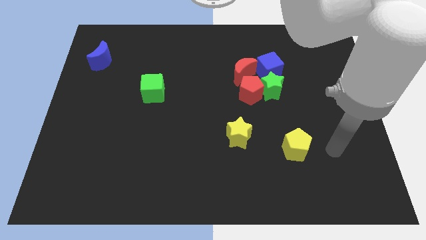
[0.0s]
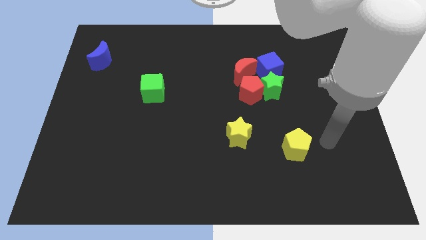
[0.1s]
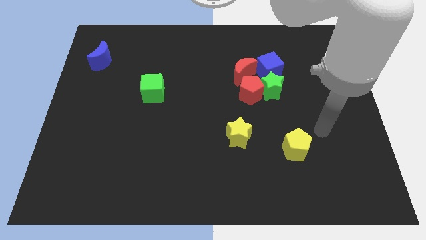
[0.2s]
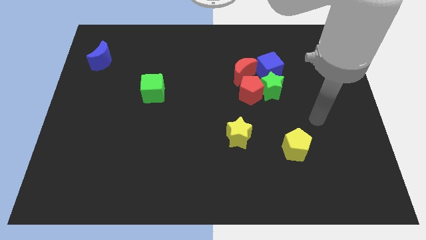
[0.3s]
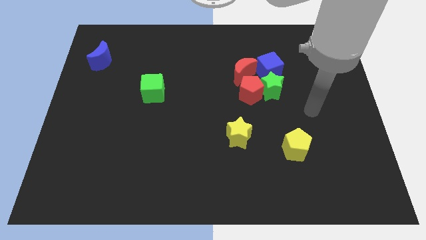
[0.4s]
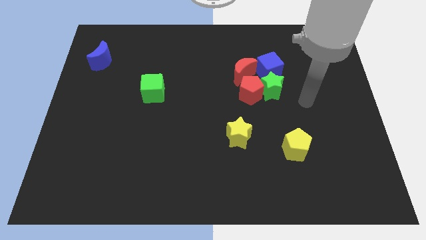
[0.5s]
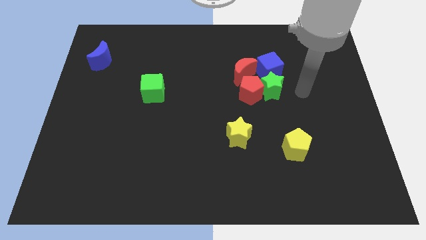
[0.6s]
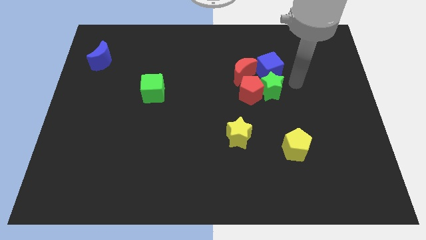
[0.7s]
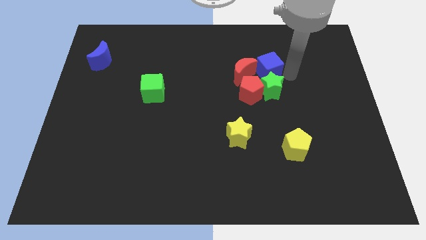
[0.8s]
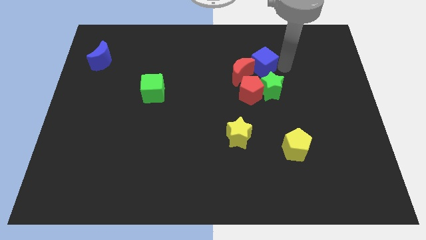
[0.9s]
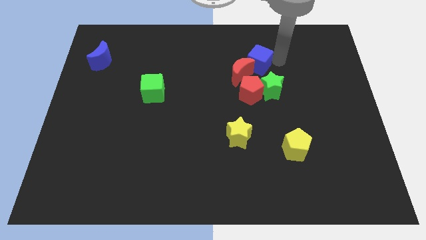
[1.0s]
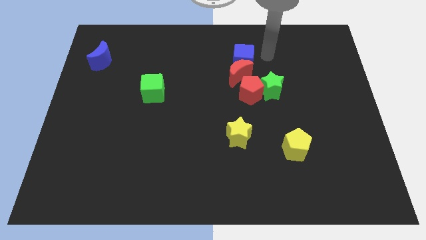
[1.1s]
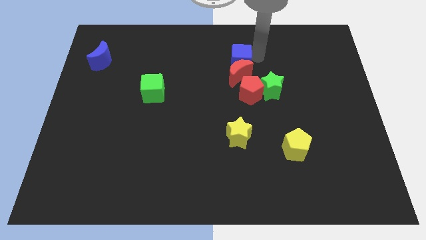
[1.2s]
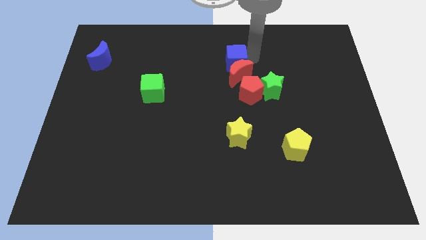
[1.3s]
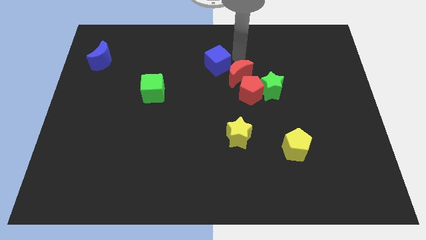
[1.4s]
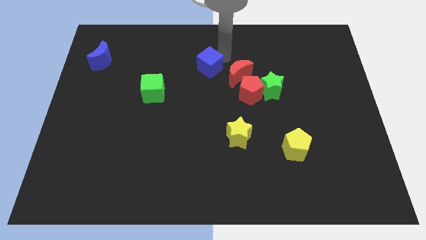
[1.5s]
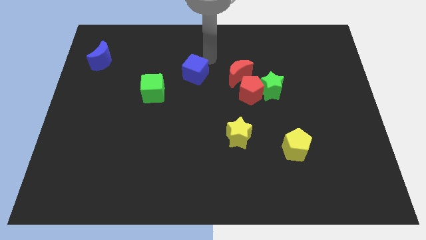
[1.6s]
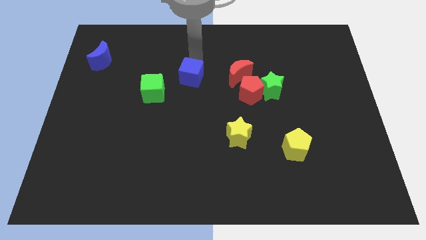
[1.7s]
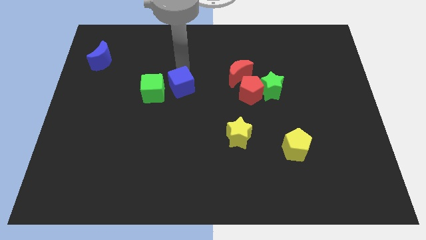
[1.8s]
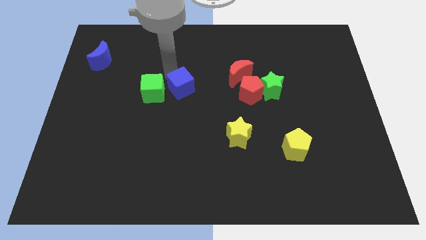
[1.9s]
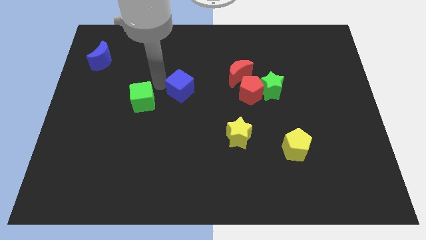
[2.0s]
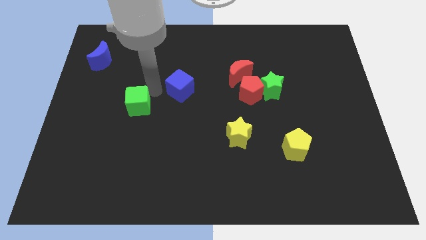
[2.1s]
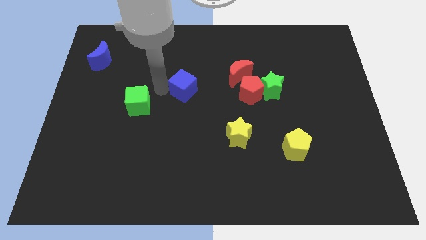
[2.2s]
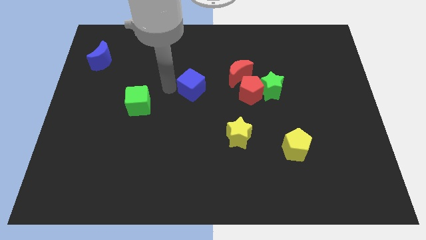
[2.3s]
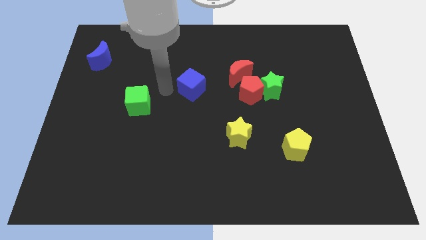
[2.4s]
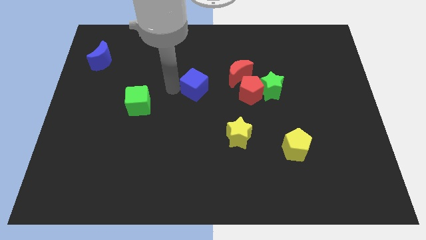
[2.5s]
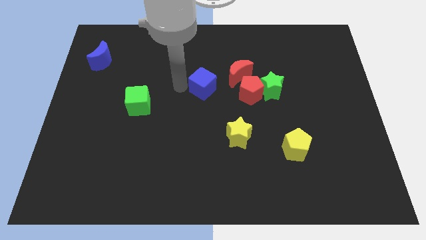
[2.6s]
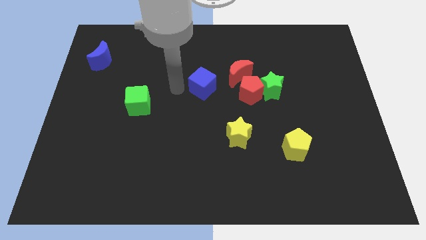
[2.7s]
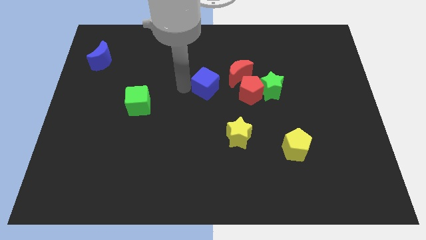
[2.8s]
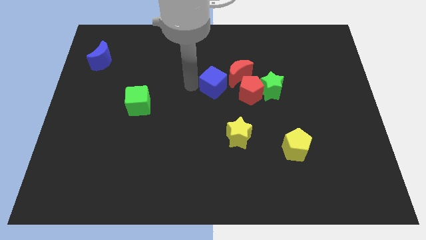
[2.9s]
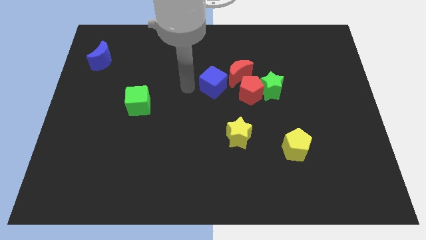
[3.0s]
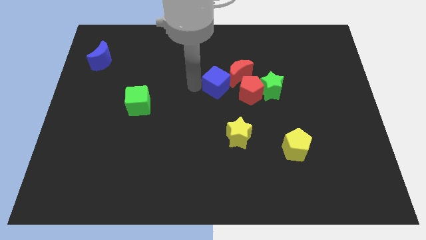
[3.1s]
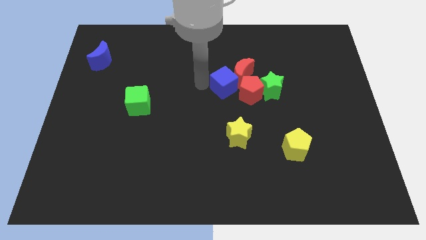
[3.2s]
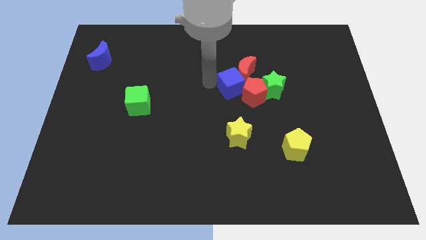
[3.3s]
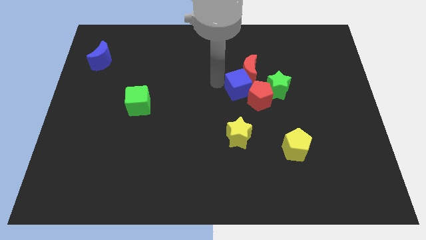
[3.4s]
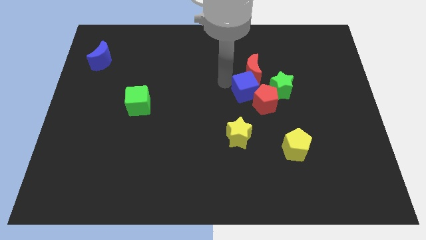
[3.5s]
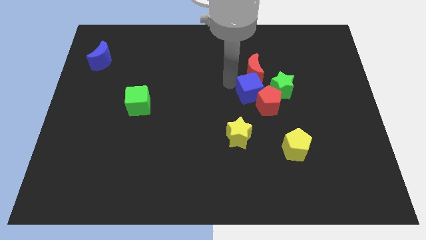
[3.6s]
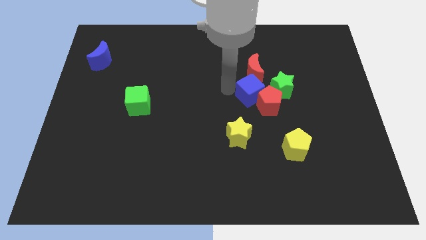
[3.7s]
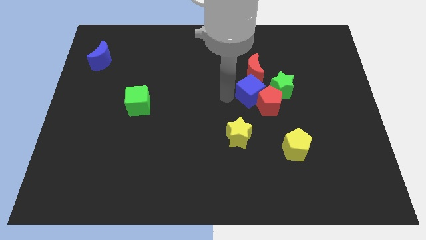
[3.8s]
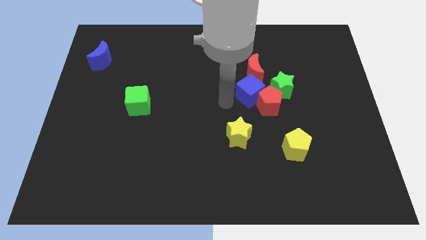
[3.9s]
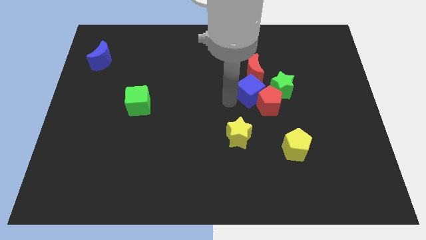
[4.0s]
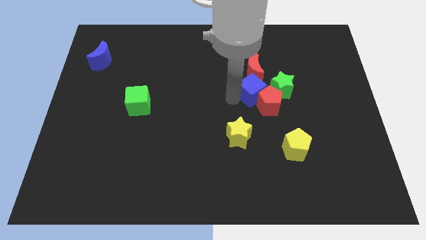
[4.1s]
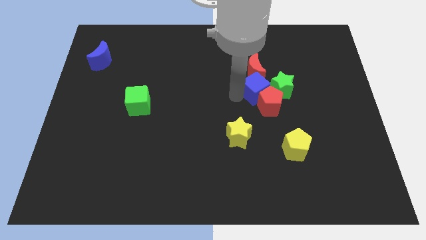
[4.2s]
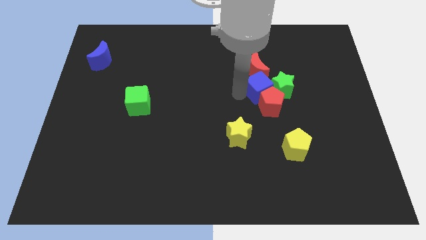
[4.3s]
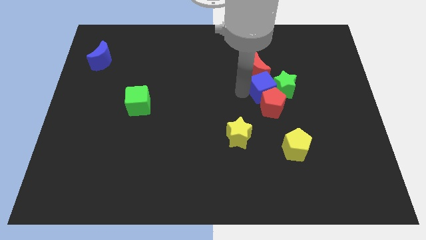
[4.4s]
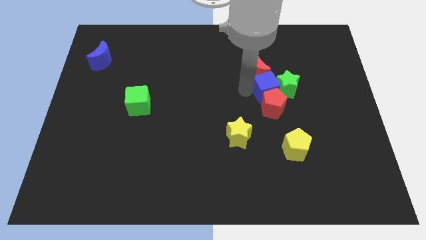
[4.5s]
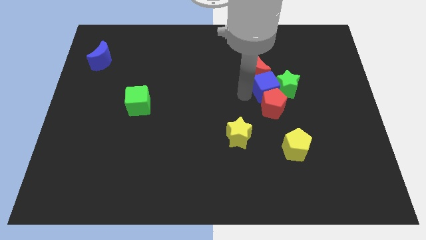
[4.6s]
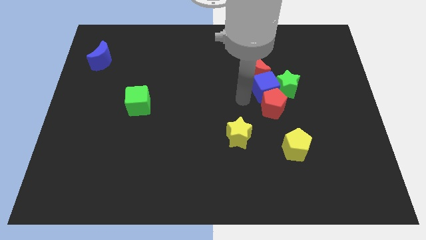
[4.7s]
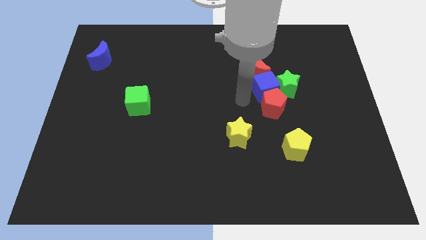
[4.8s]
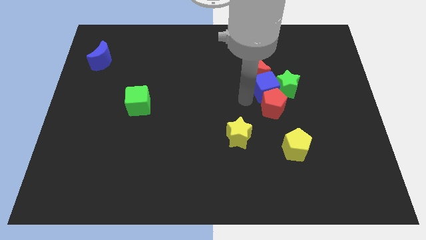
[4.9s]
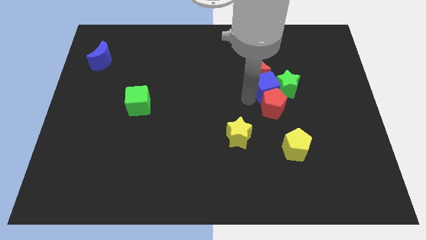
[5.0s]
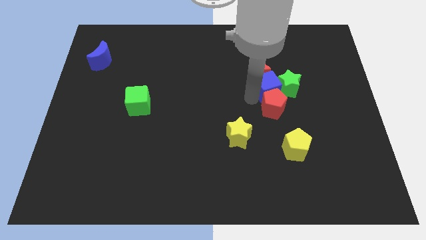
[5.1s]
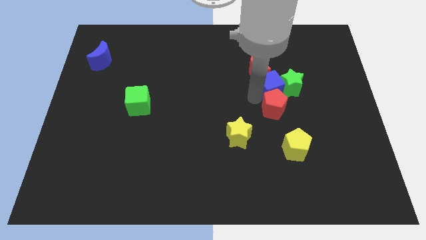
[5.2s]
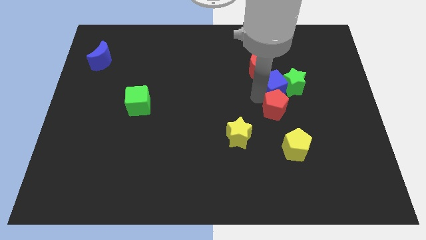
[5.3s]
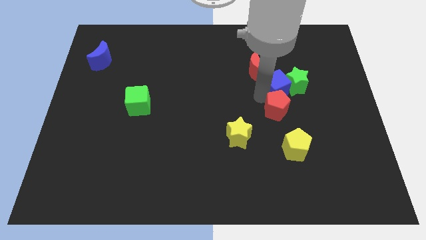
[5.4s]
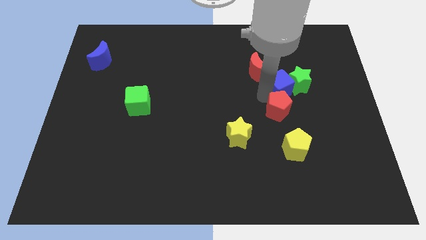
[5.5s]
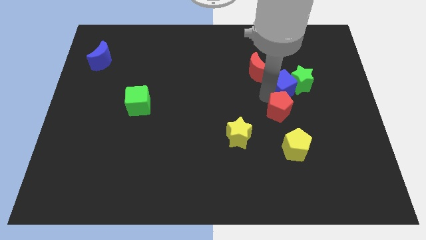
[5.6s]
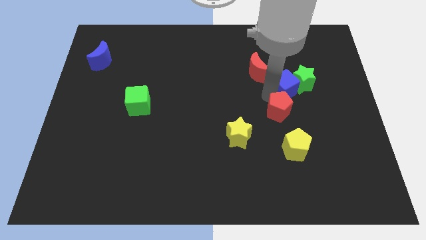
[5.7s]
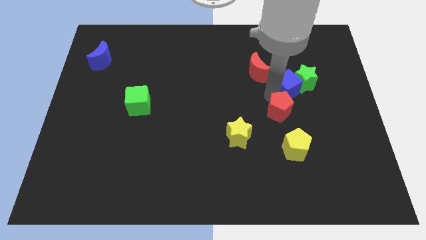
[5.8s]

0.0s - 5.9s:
slightly push the blue cube downwards and to the right diagonally

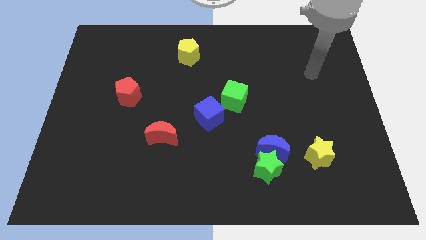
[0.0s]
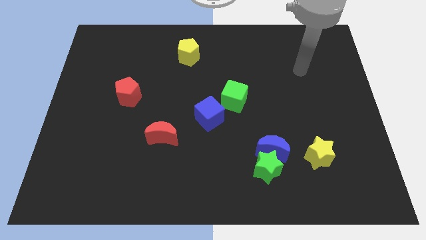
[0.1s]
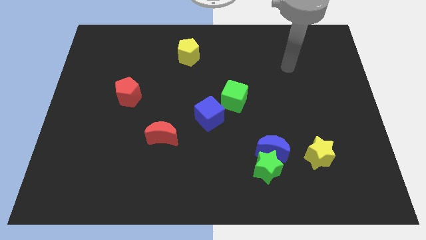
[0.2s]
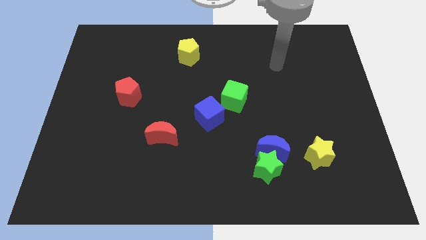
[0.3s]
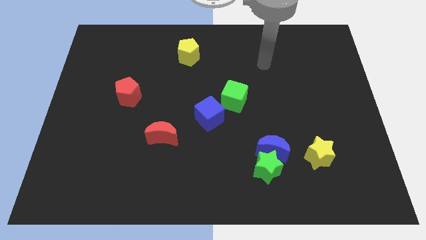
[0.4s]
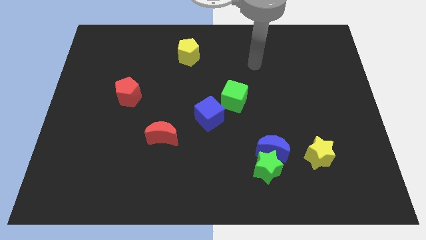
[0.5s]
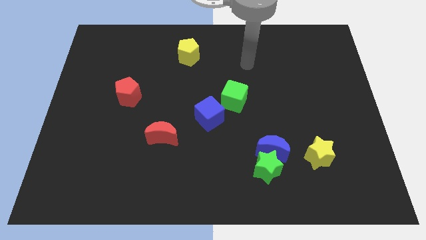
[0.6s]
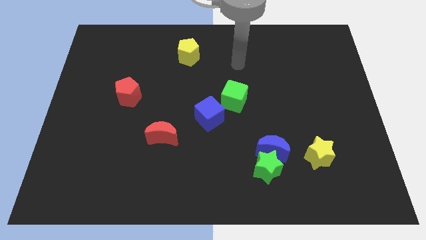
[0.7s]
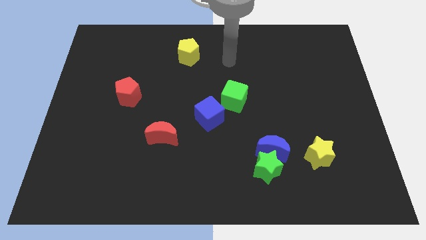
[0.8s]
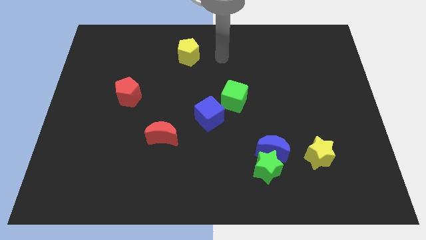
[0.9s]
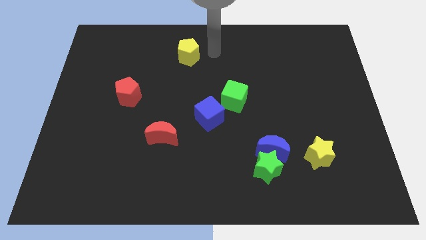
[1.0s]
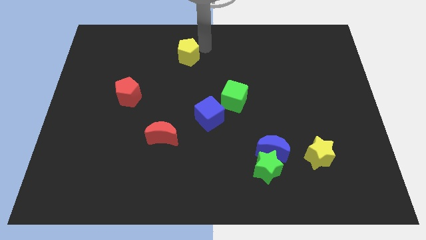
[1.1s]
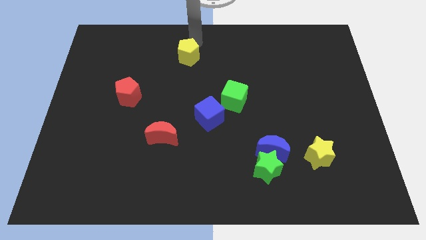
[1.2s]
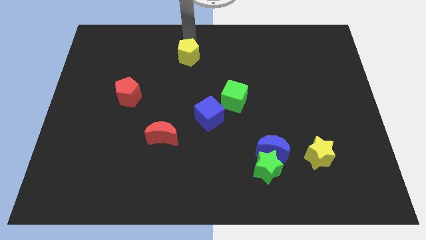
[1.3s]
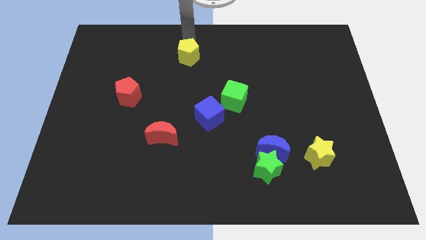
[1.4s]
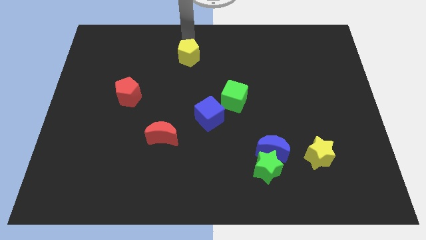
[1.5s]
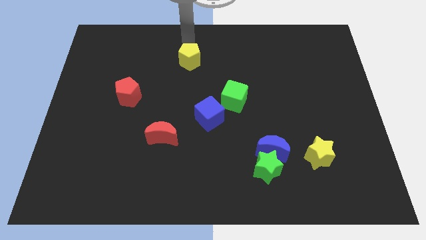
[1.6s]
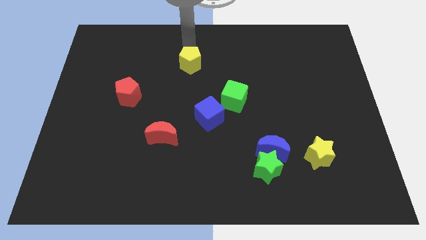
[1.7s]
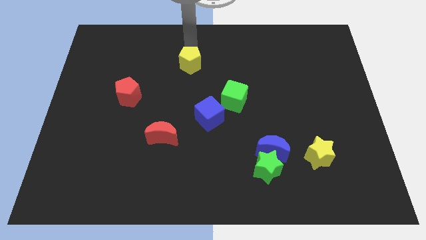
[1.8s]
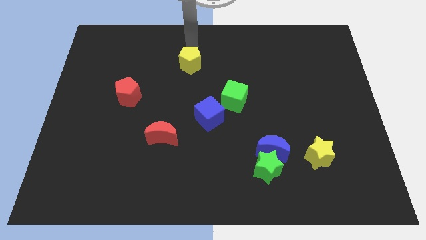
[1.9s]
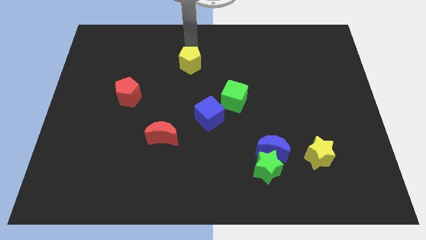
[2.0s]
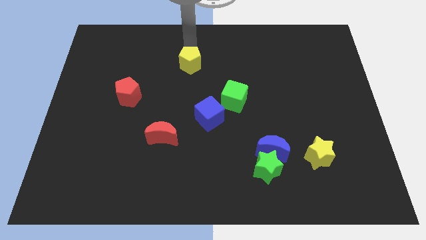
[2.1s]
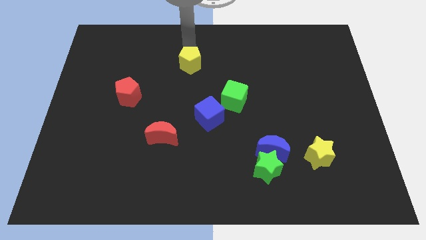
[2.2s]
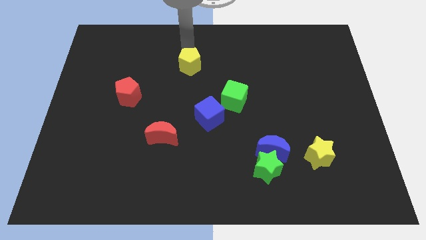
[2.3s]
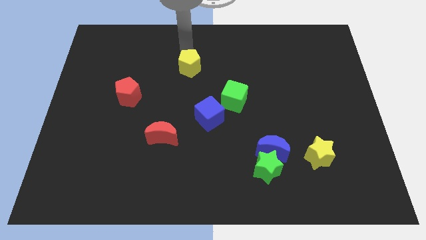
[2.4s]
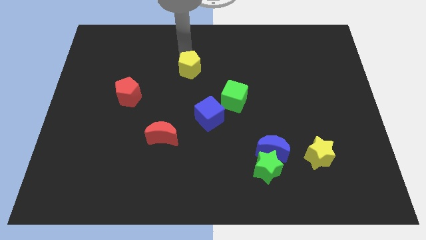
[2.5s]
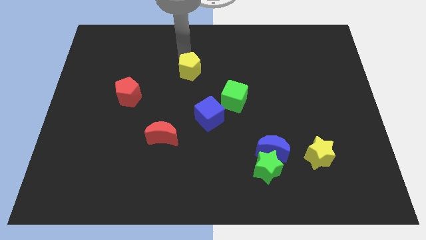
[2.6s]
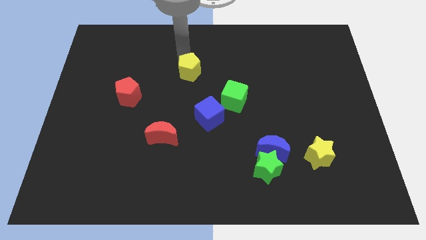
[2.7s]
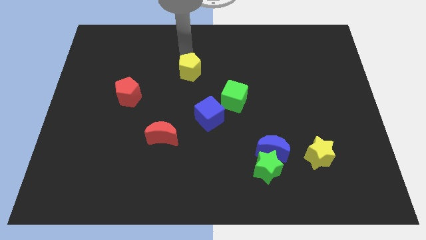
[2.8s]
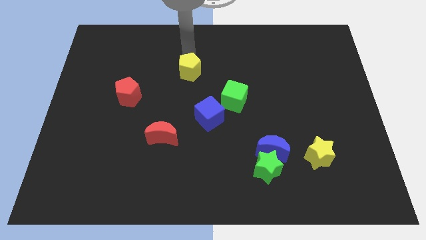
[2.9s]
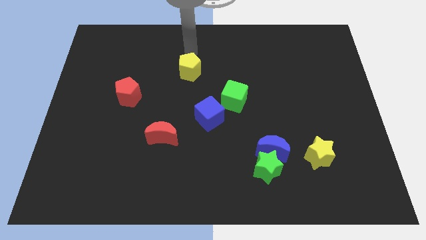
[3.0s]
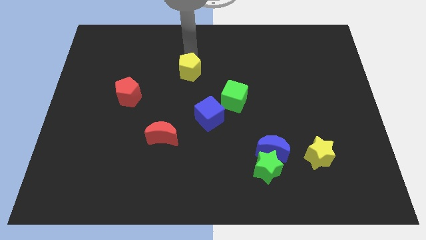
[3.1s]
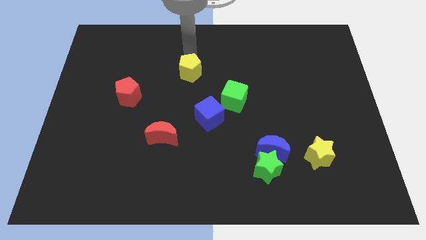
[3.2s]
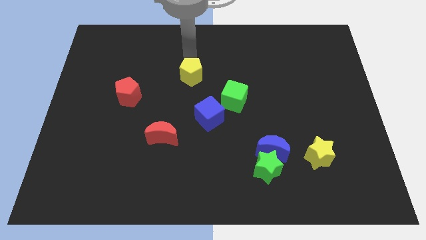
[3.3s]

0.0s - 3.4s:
slide the yellow pentagon downwards a bit
